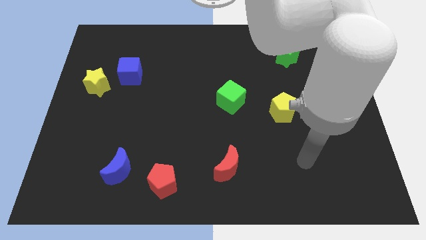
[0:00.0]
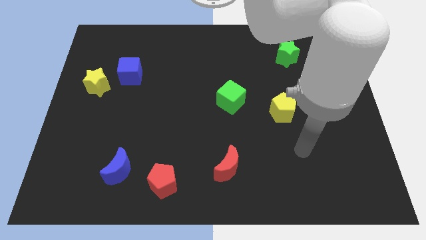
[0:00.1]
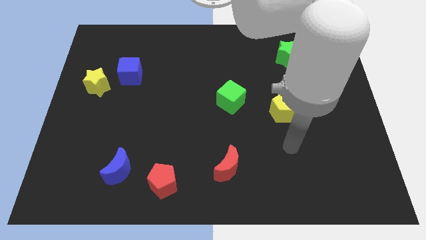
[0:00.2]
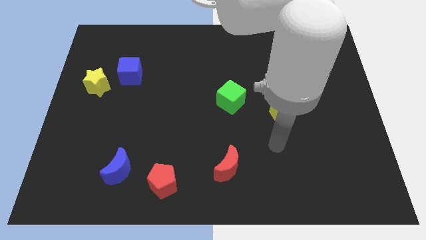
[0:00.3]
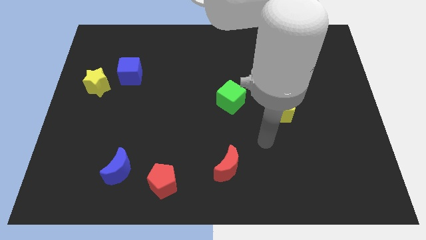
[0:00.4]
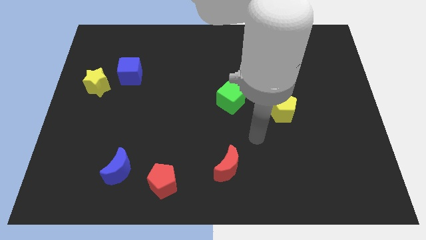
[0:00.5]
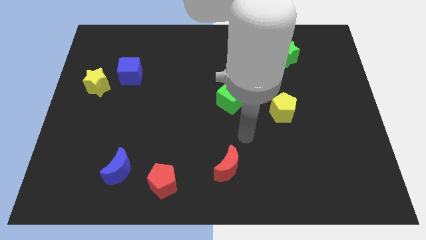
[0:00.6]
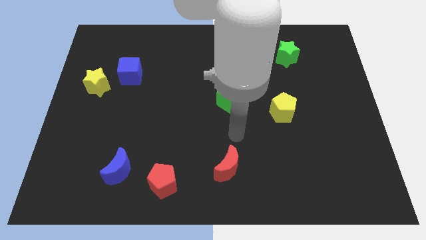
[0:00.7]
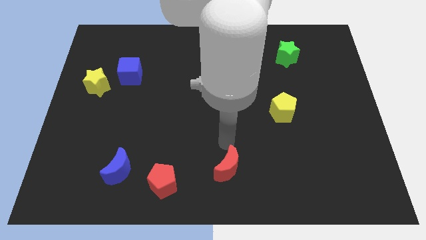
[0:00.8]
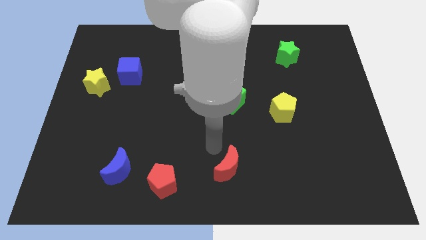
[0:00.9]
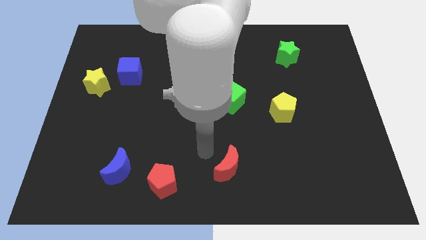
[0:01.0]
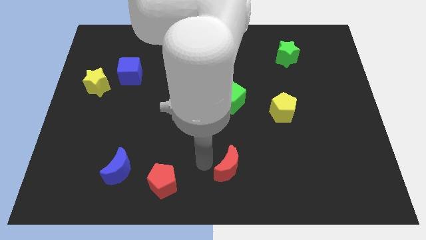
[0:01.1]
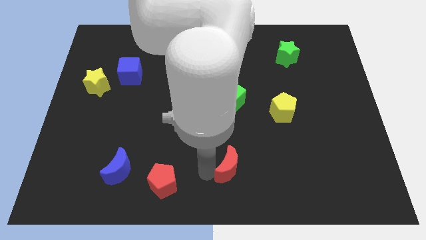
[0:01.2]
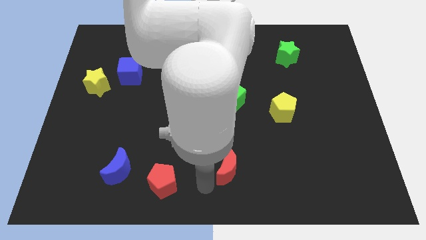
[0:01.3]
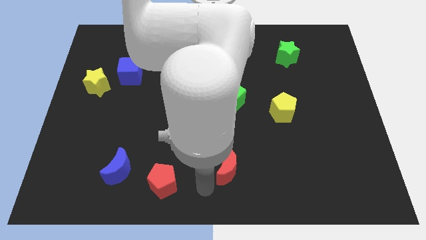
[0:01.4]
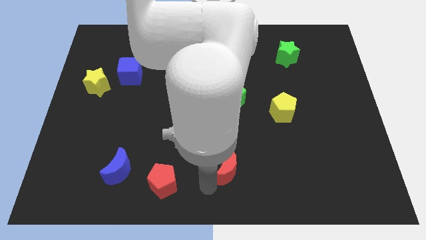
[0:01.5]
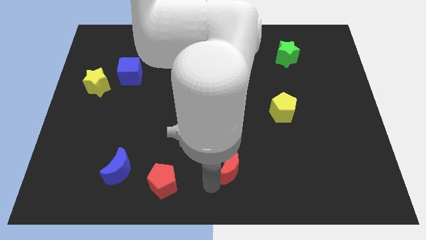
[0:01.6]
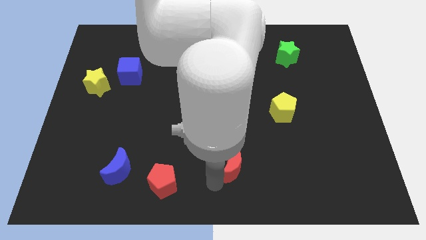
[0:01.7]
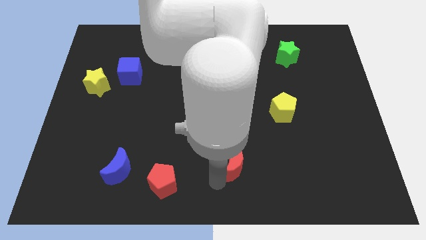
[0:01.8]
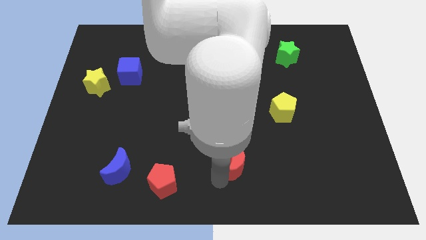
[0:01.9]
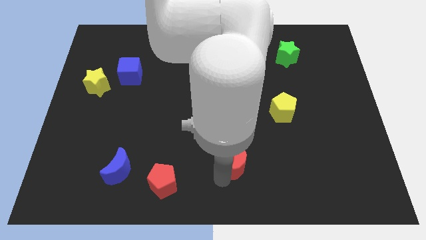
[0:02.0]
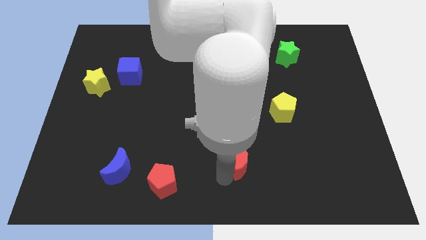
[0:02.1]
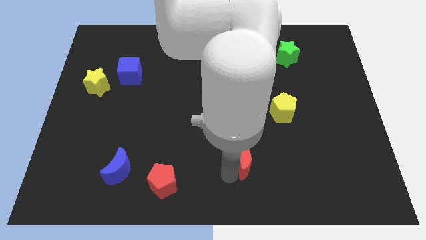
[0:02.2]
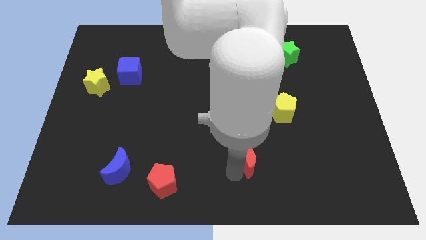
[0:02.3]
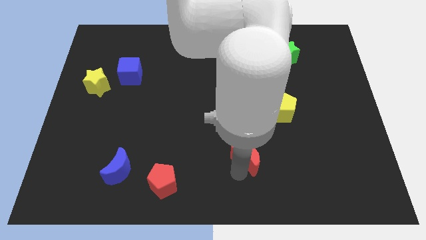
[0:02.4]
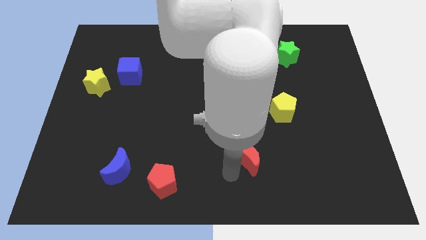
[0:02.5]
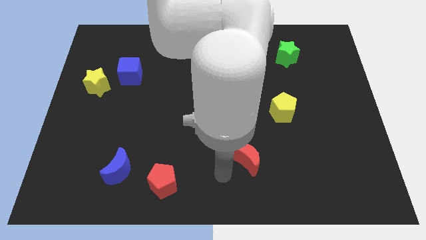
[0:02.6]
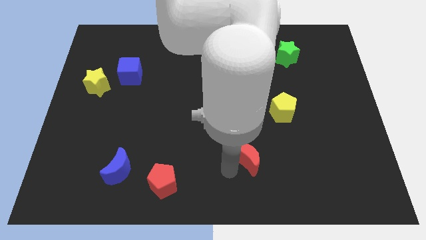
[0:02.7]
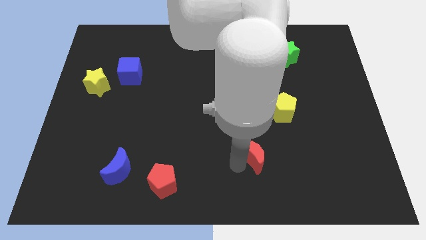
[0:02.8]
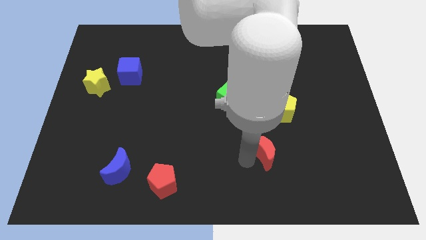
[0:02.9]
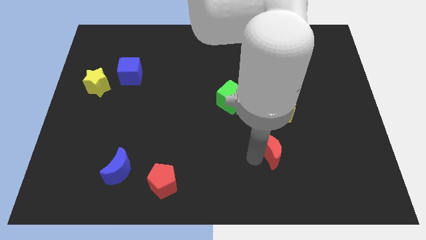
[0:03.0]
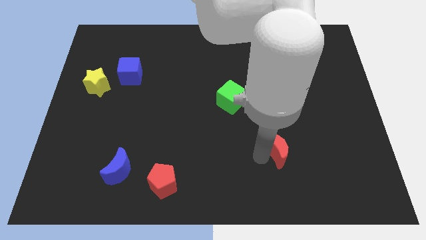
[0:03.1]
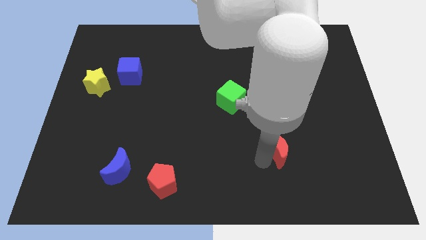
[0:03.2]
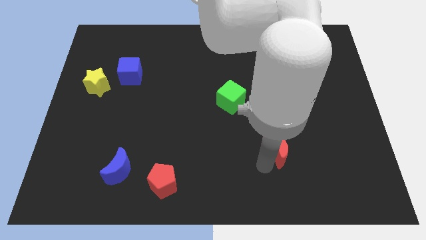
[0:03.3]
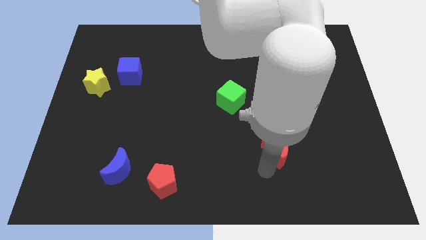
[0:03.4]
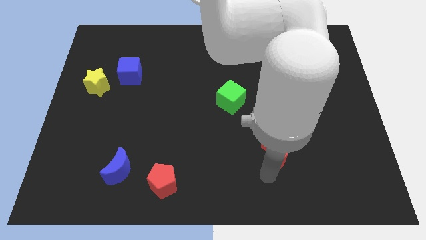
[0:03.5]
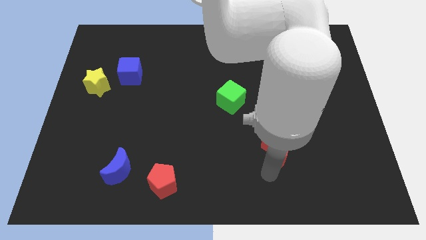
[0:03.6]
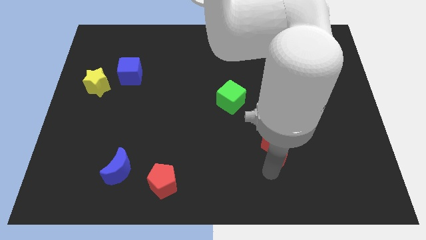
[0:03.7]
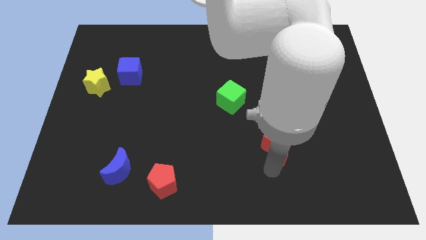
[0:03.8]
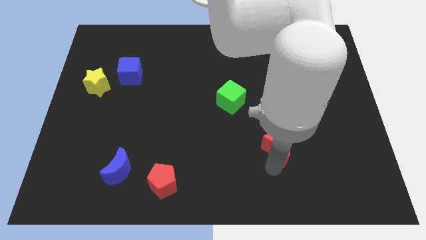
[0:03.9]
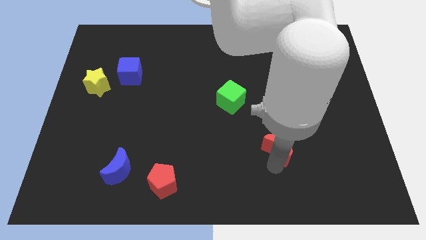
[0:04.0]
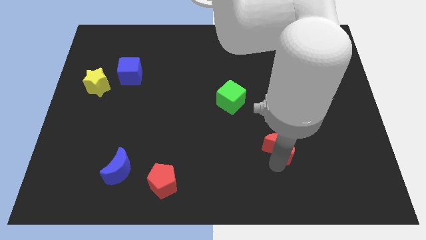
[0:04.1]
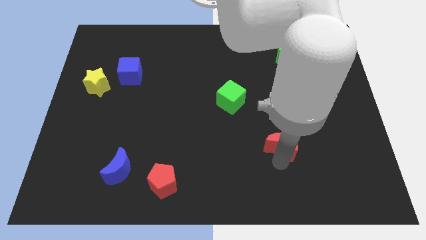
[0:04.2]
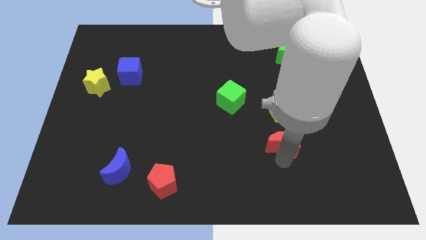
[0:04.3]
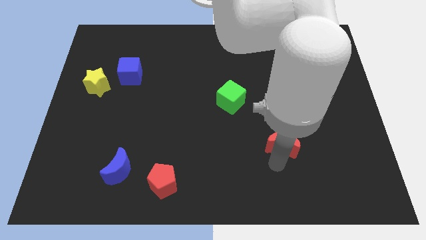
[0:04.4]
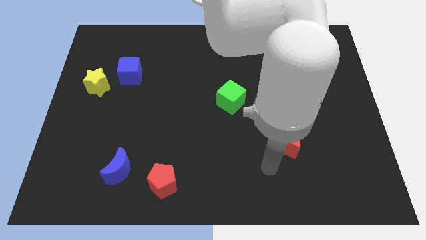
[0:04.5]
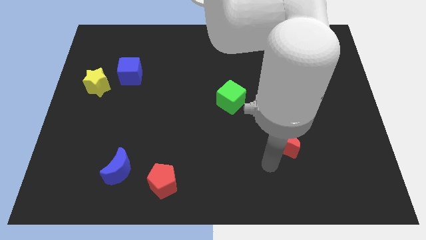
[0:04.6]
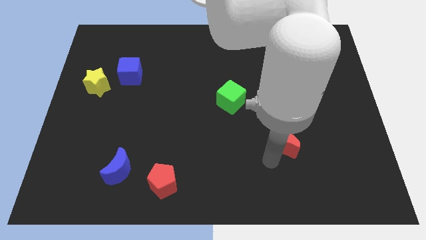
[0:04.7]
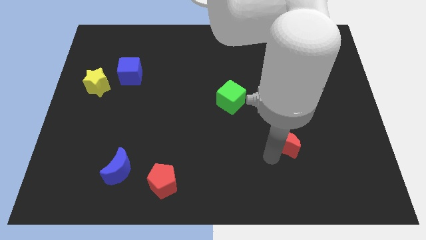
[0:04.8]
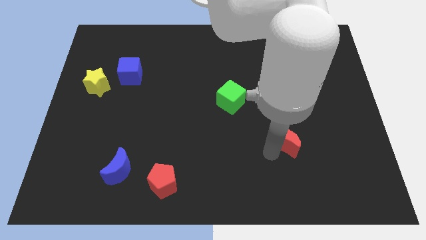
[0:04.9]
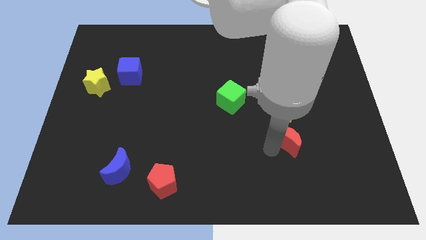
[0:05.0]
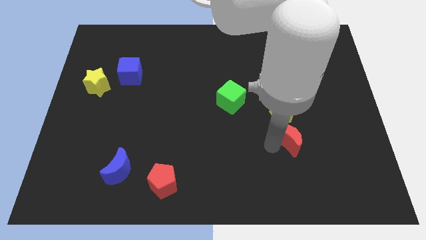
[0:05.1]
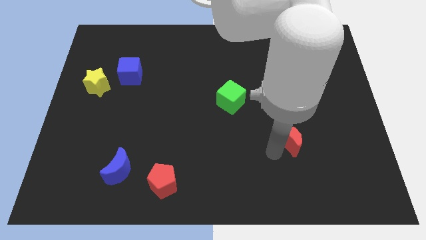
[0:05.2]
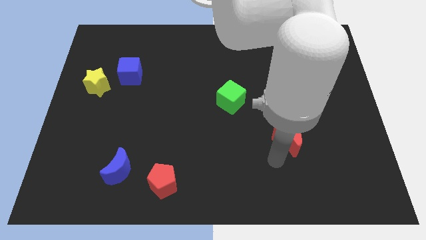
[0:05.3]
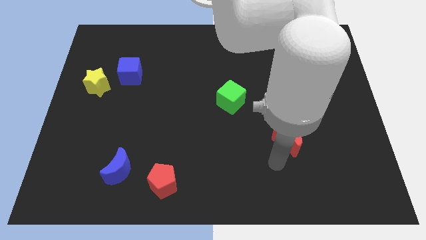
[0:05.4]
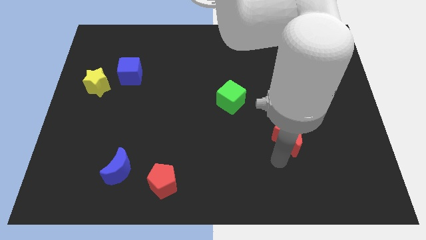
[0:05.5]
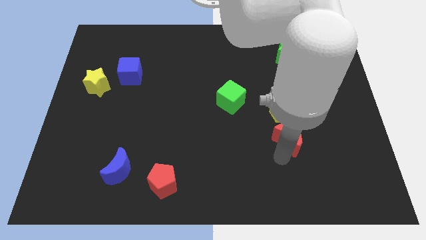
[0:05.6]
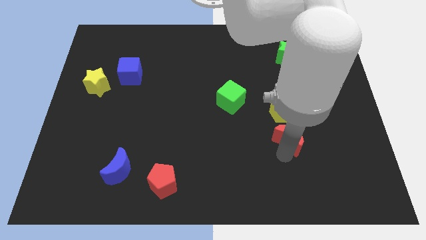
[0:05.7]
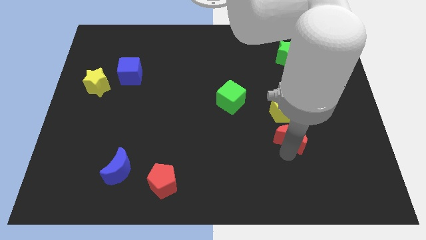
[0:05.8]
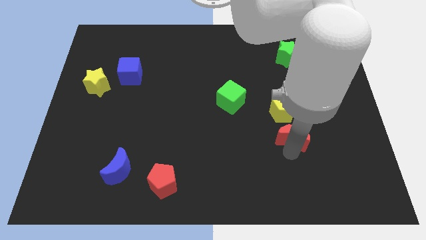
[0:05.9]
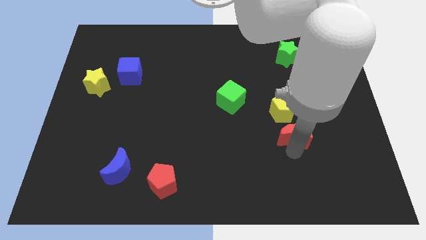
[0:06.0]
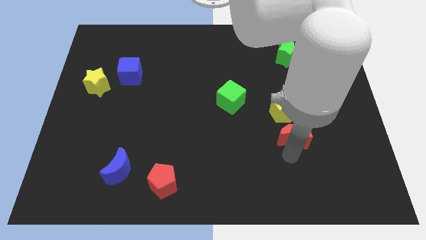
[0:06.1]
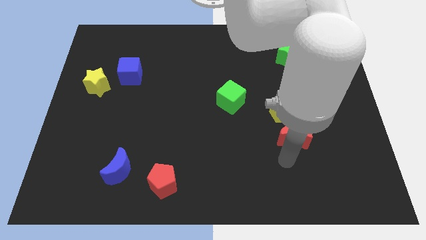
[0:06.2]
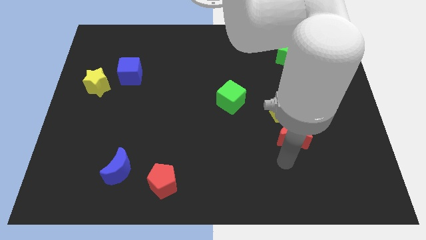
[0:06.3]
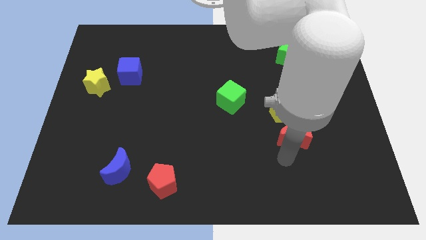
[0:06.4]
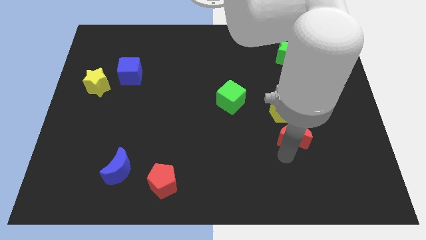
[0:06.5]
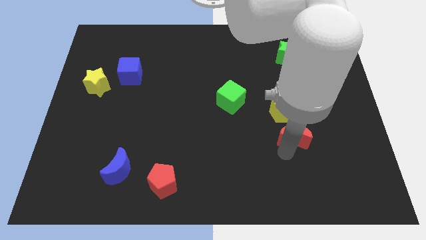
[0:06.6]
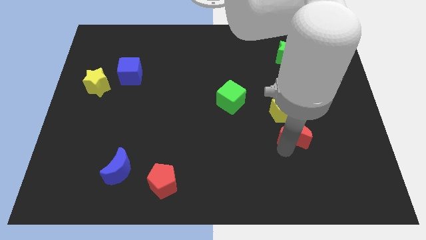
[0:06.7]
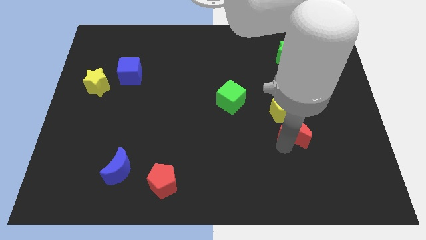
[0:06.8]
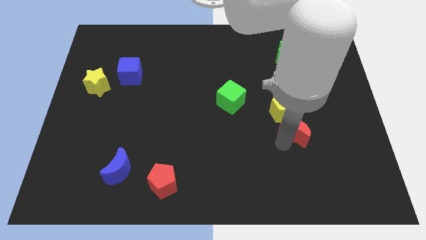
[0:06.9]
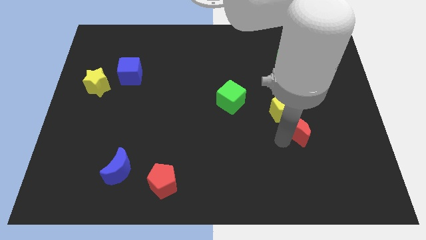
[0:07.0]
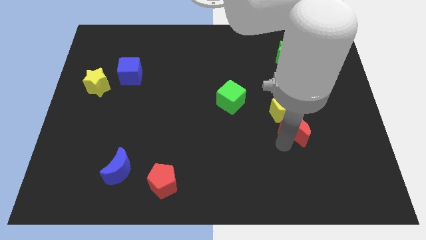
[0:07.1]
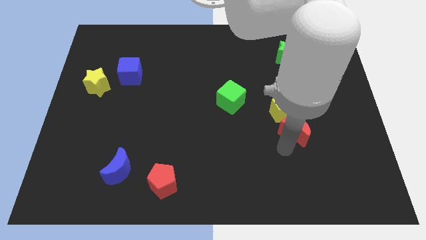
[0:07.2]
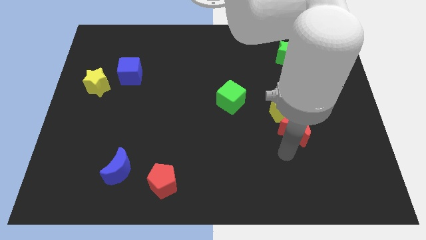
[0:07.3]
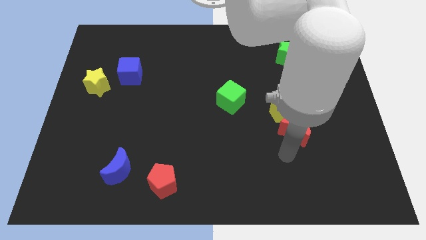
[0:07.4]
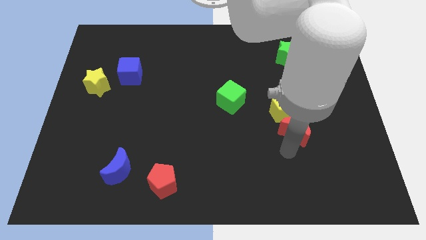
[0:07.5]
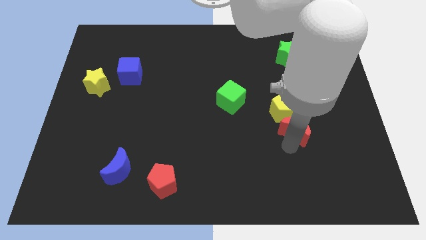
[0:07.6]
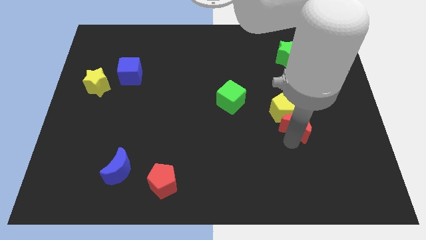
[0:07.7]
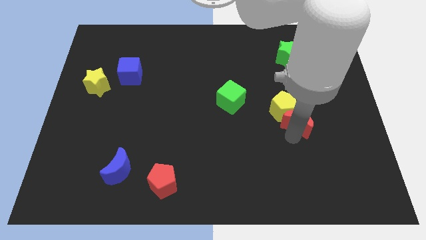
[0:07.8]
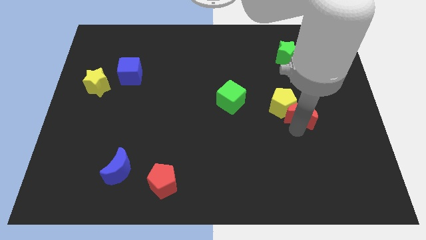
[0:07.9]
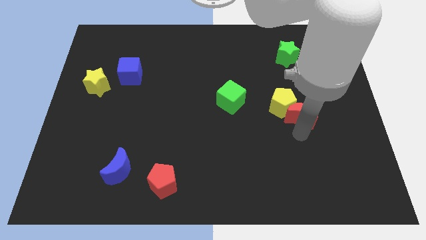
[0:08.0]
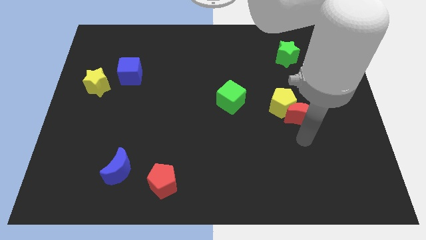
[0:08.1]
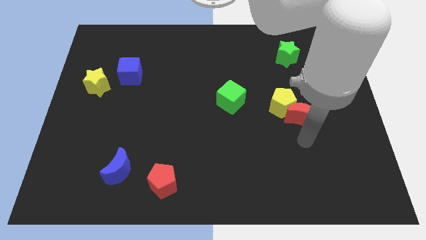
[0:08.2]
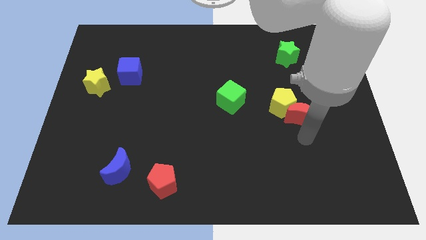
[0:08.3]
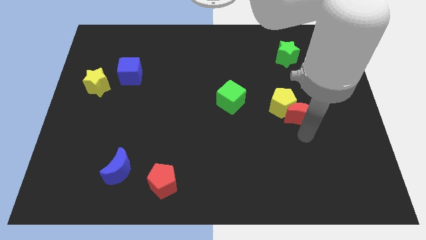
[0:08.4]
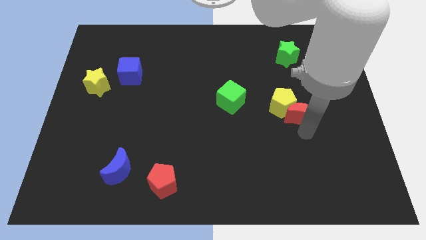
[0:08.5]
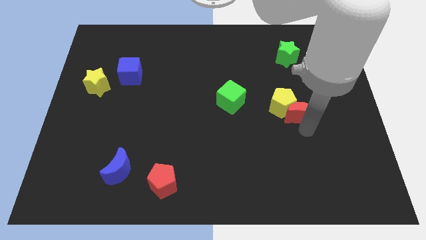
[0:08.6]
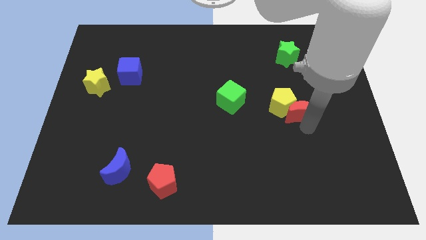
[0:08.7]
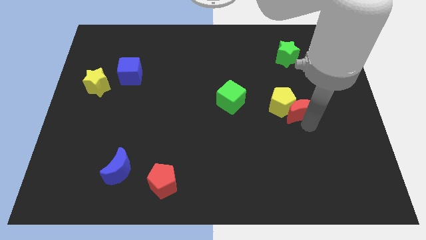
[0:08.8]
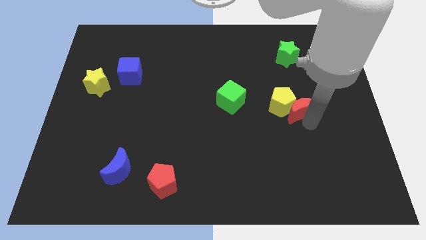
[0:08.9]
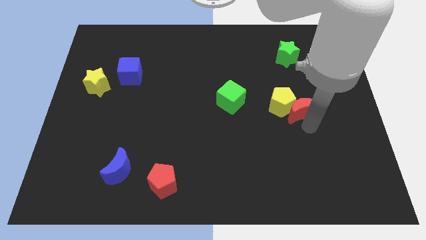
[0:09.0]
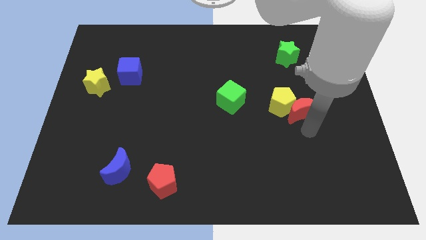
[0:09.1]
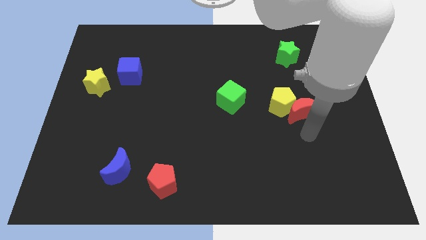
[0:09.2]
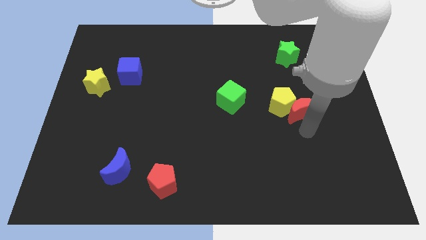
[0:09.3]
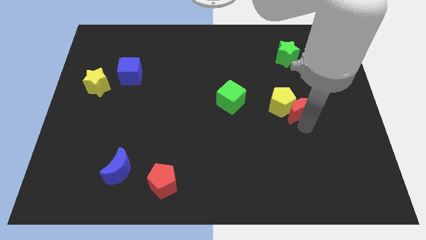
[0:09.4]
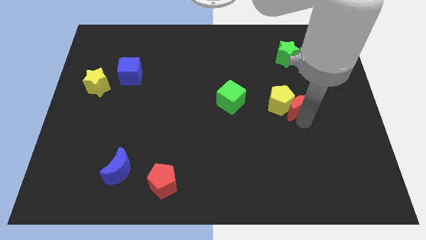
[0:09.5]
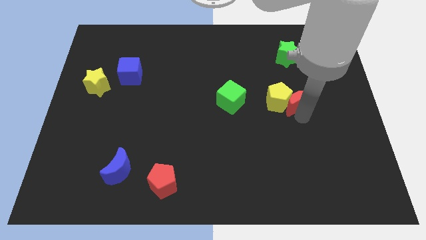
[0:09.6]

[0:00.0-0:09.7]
move the red moon to the right side of the green cube
